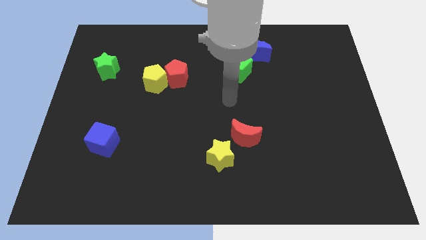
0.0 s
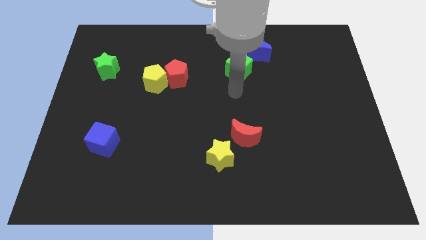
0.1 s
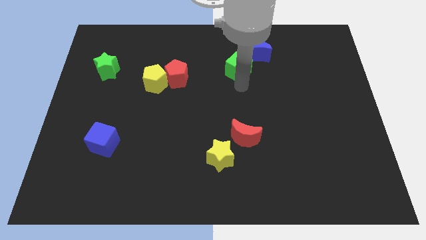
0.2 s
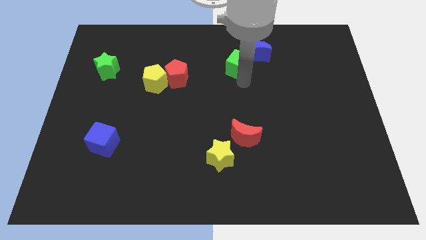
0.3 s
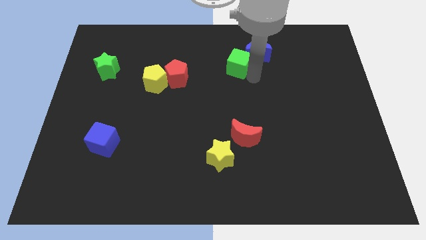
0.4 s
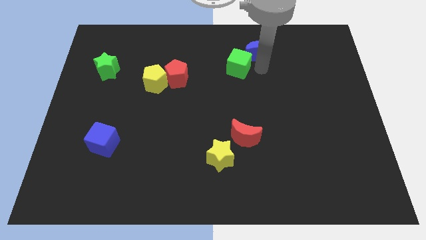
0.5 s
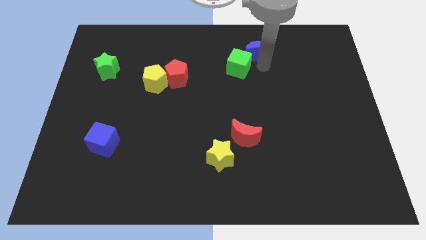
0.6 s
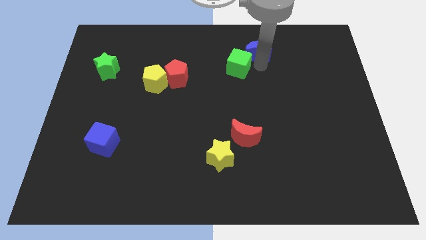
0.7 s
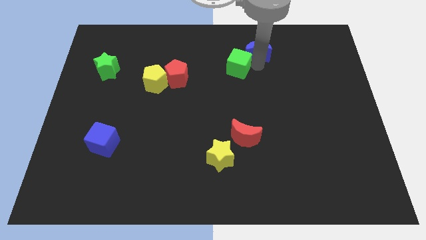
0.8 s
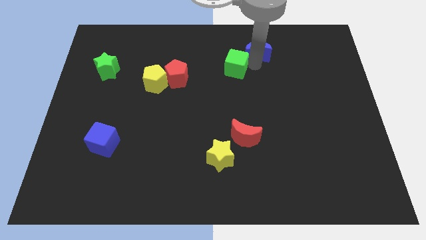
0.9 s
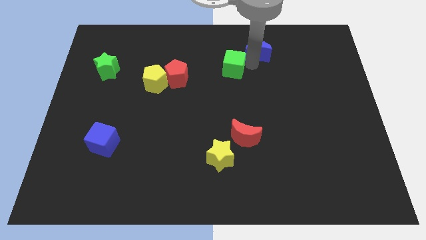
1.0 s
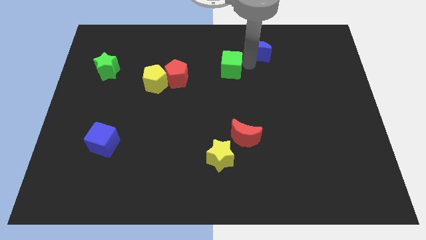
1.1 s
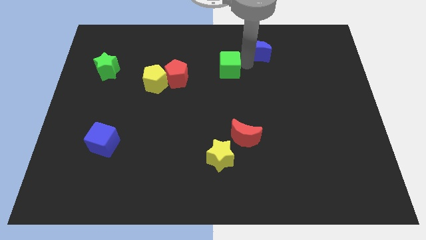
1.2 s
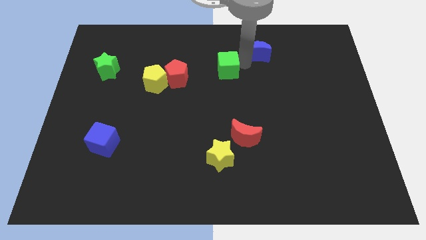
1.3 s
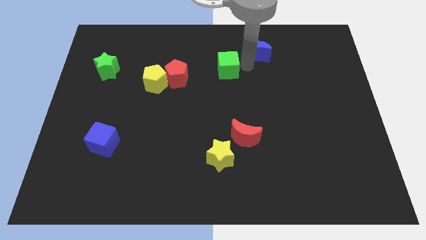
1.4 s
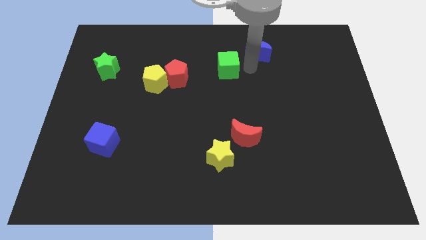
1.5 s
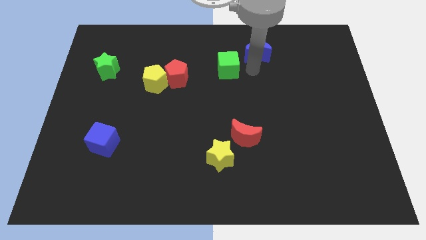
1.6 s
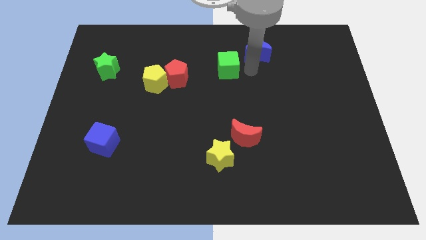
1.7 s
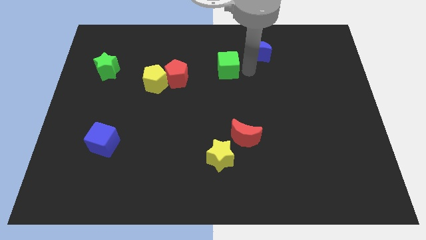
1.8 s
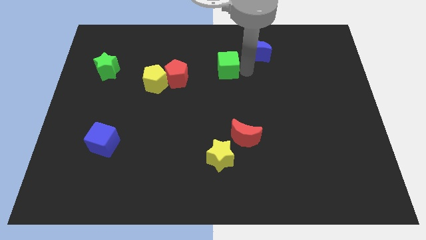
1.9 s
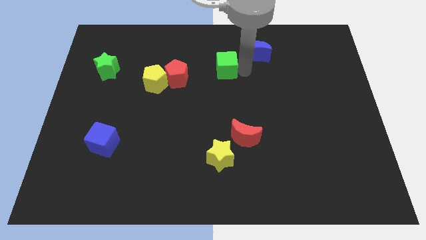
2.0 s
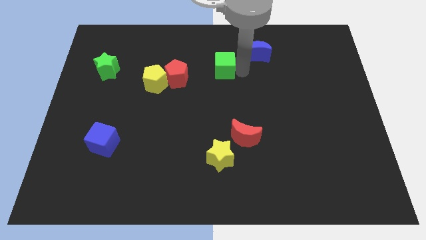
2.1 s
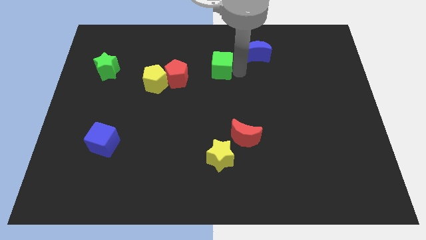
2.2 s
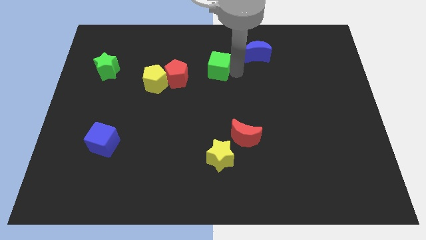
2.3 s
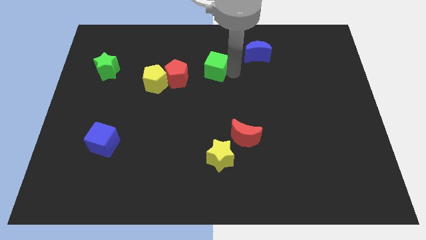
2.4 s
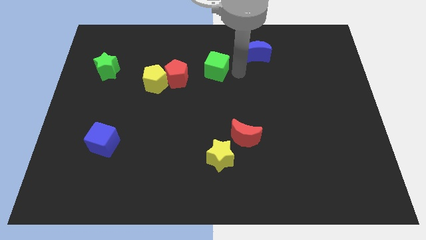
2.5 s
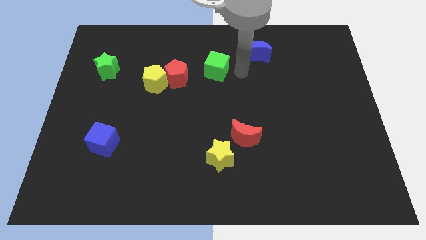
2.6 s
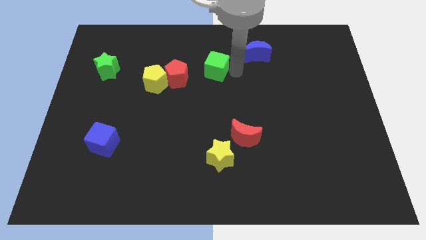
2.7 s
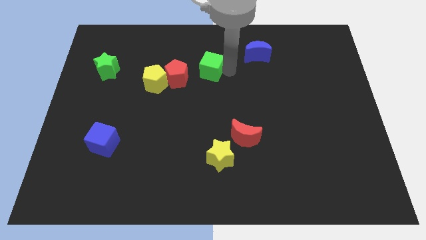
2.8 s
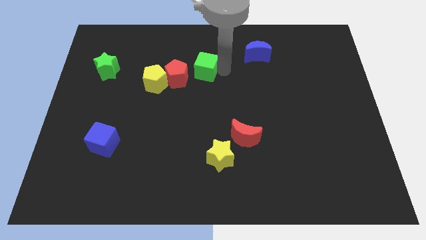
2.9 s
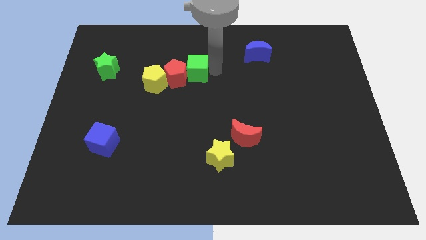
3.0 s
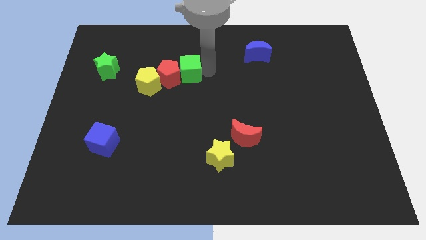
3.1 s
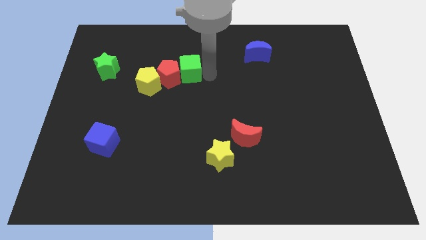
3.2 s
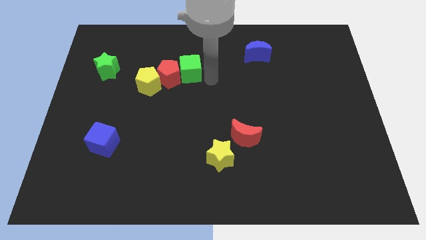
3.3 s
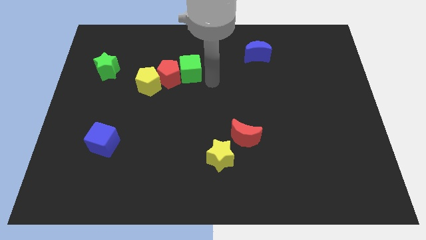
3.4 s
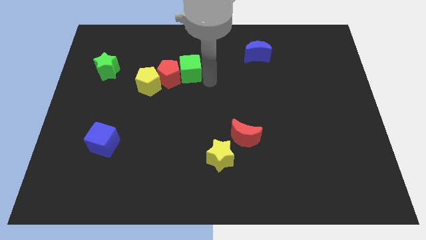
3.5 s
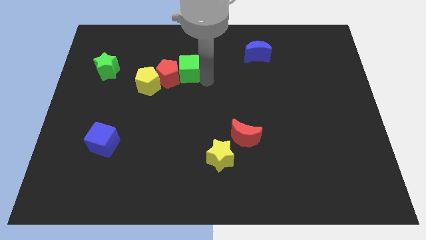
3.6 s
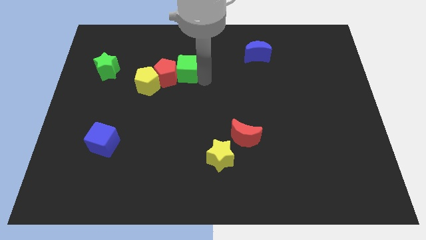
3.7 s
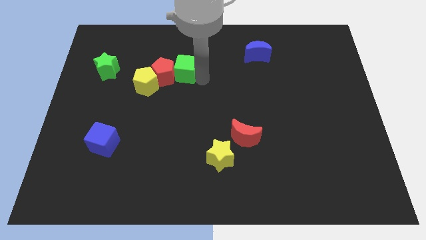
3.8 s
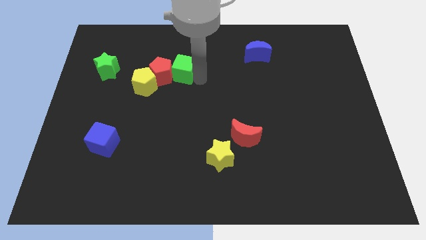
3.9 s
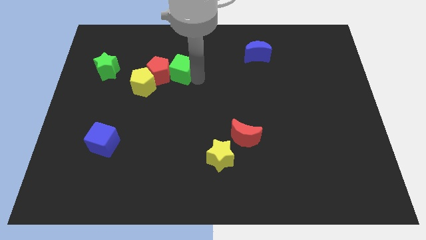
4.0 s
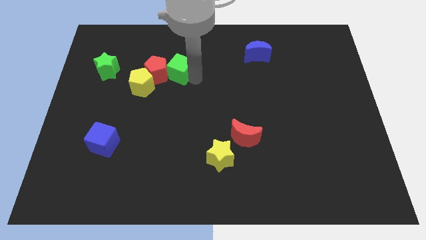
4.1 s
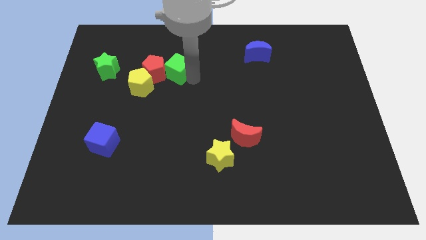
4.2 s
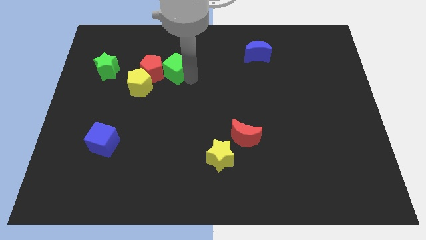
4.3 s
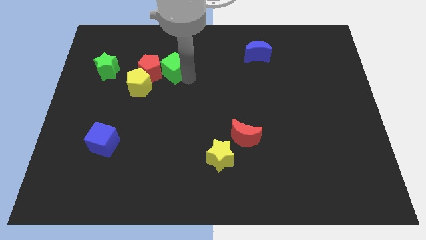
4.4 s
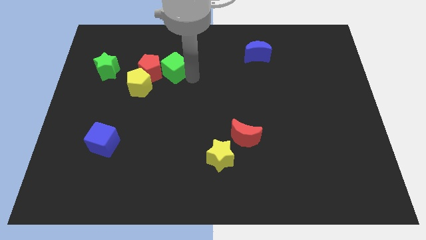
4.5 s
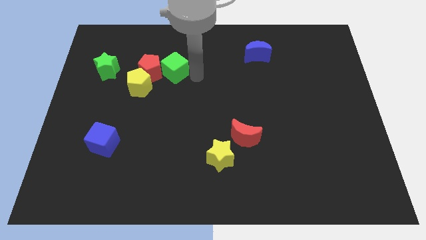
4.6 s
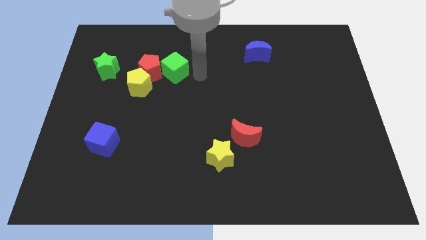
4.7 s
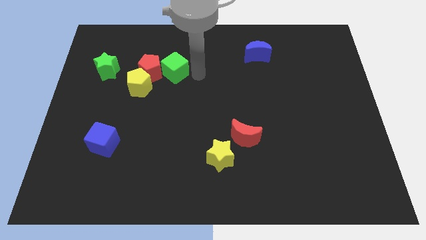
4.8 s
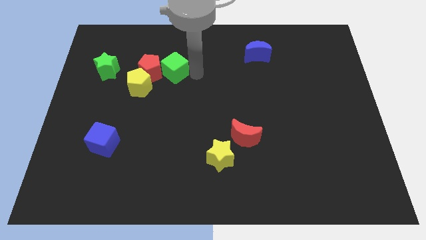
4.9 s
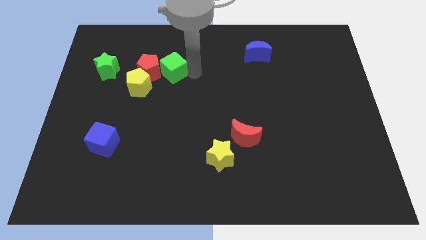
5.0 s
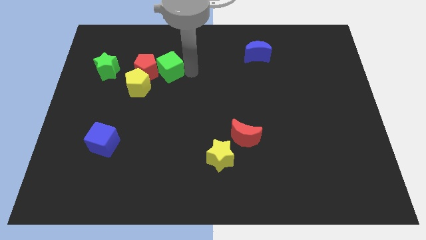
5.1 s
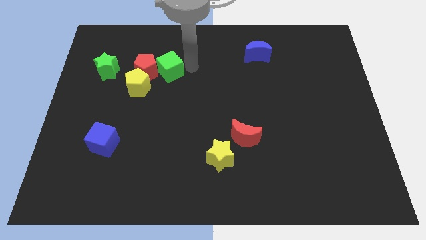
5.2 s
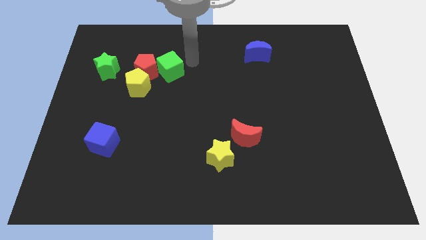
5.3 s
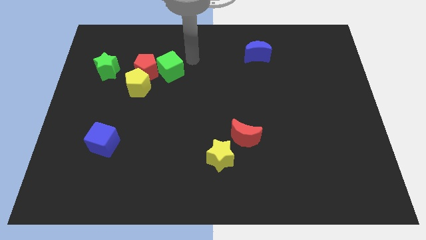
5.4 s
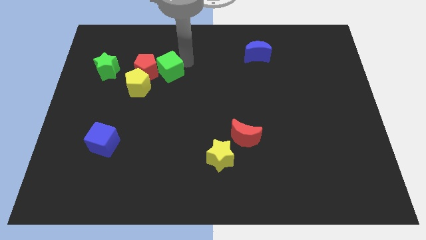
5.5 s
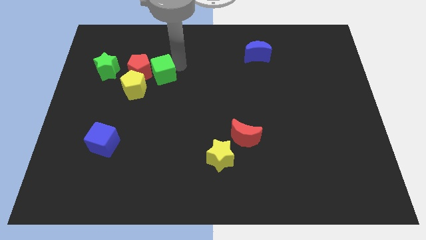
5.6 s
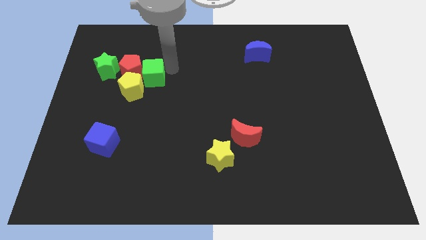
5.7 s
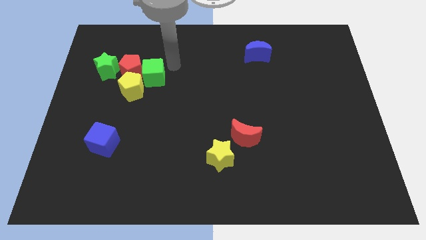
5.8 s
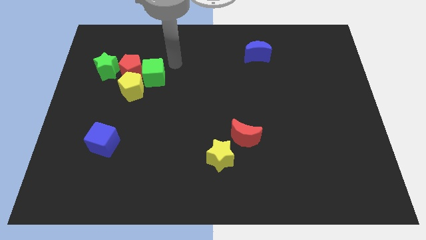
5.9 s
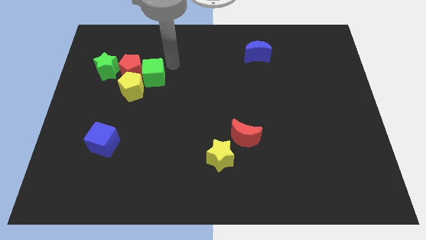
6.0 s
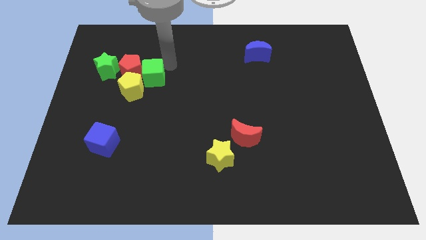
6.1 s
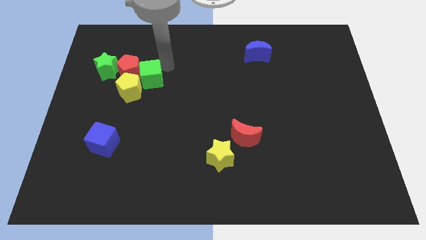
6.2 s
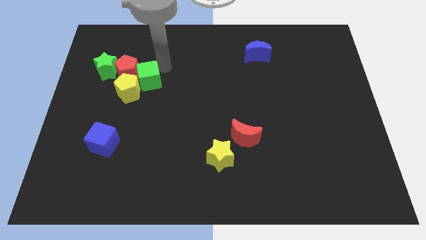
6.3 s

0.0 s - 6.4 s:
slide the green cube close to the yellow pentagon

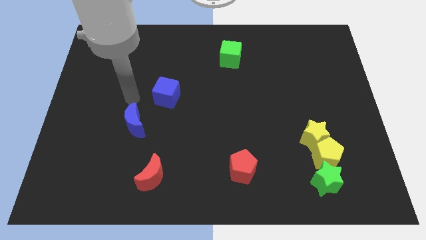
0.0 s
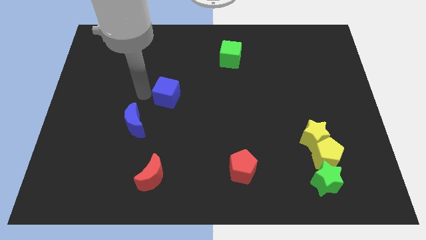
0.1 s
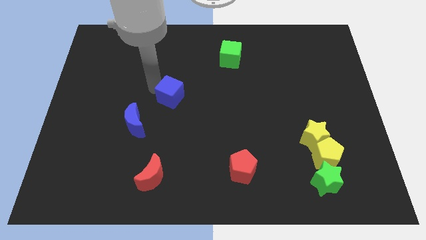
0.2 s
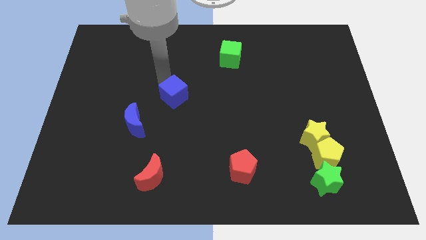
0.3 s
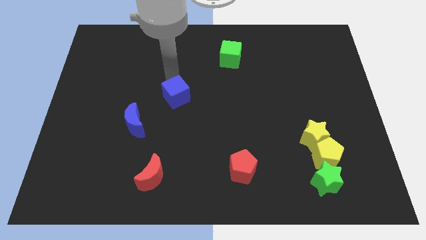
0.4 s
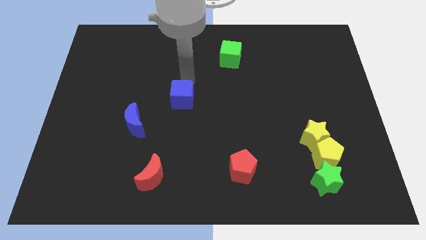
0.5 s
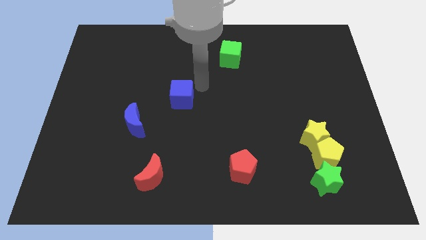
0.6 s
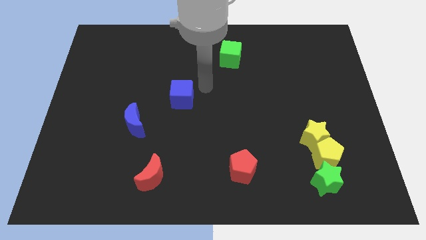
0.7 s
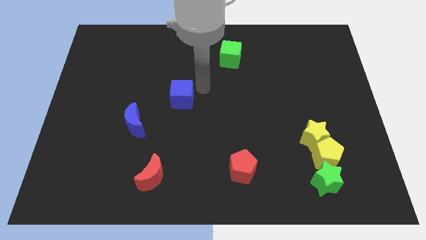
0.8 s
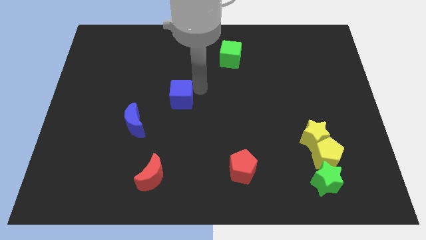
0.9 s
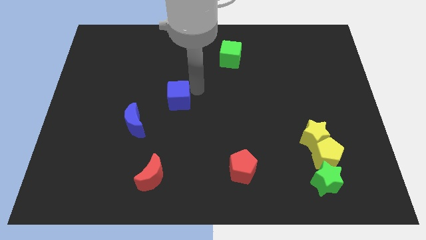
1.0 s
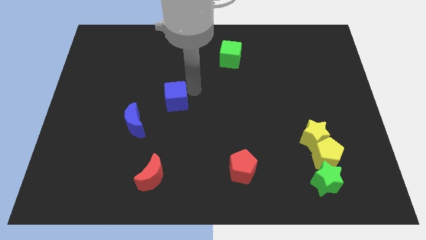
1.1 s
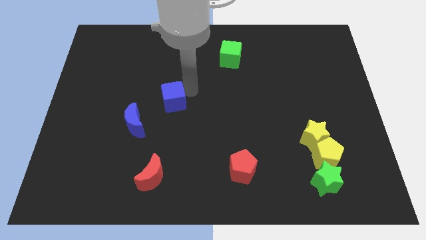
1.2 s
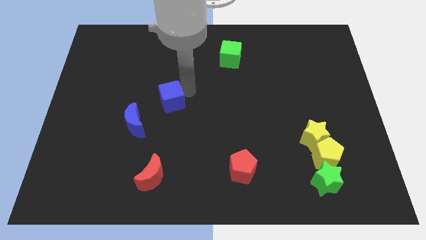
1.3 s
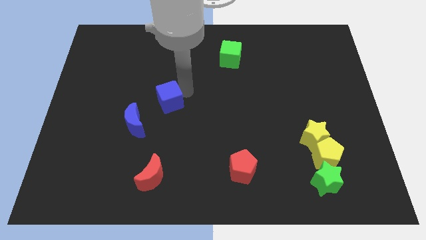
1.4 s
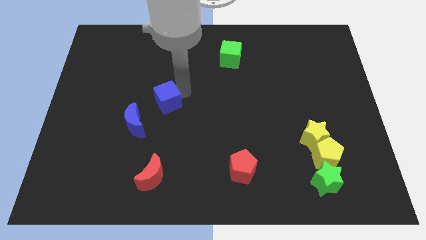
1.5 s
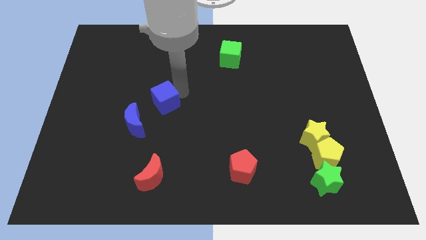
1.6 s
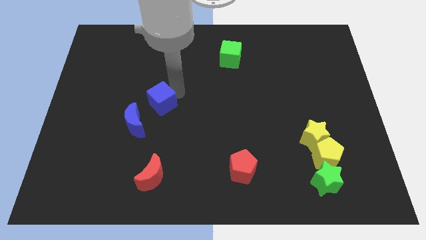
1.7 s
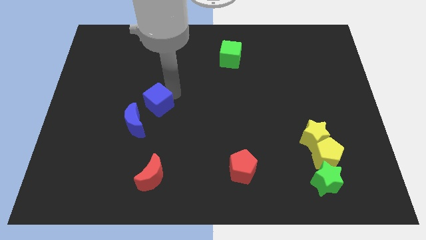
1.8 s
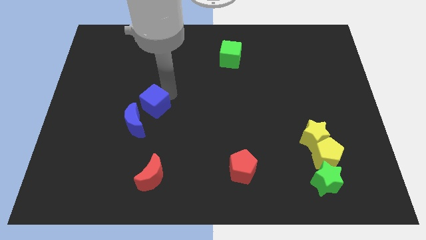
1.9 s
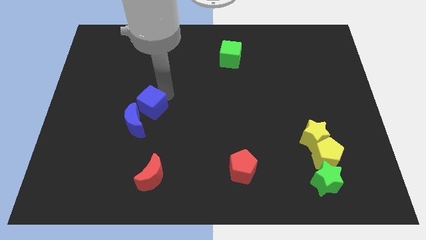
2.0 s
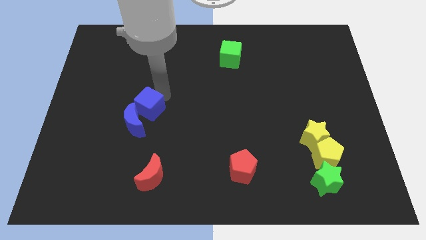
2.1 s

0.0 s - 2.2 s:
move the blue cube next to the blue moon

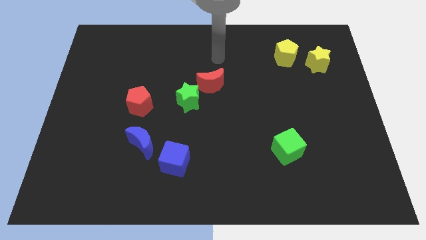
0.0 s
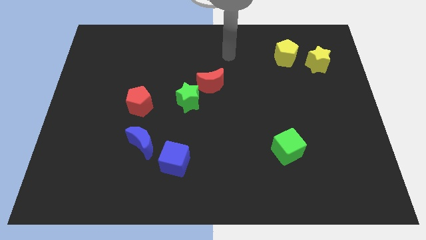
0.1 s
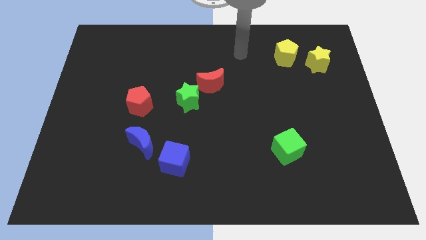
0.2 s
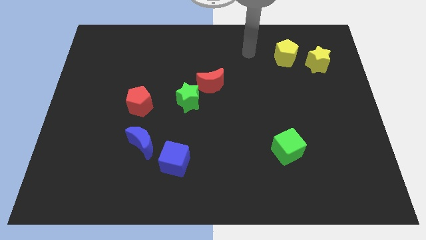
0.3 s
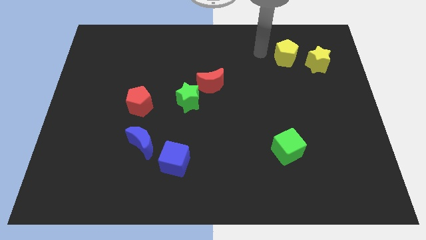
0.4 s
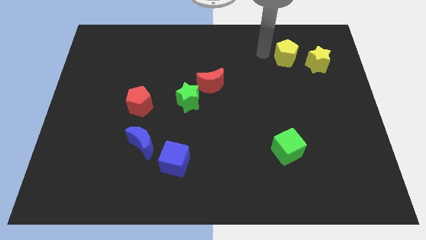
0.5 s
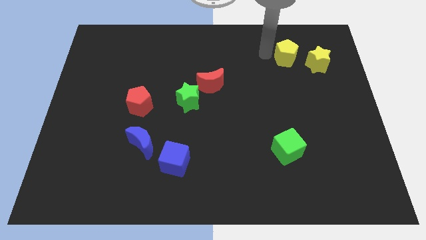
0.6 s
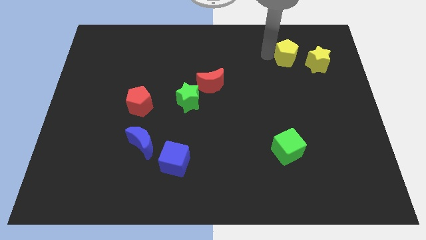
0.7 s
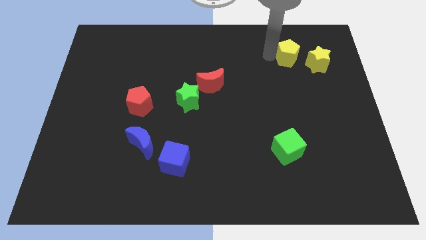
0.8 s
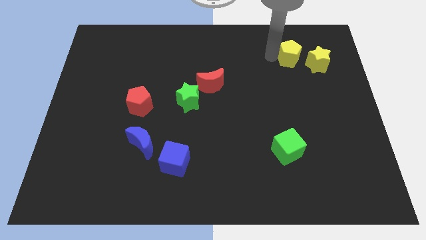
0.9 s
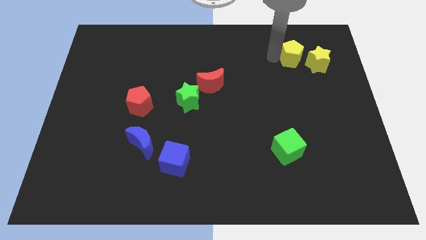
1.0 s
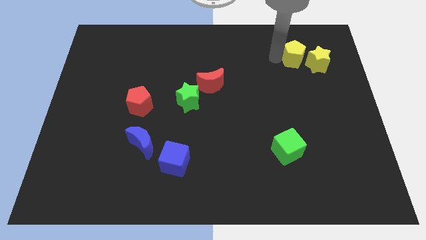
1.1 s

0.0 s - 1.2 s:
put the yellow pentagon to the yellow star
